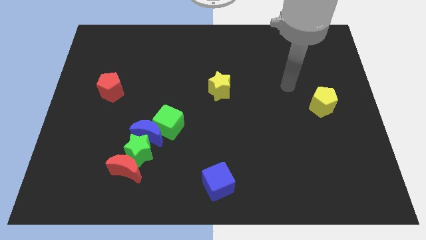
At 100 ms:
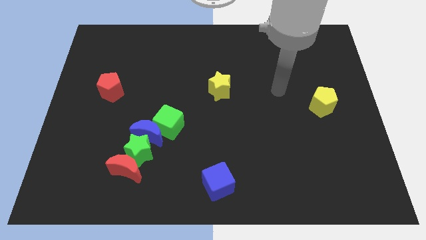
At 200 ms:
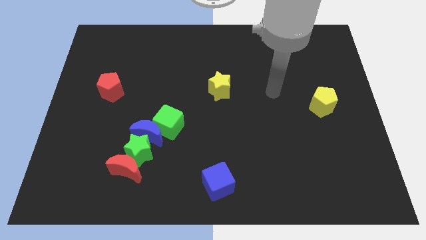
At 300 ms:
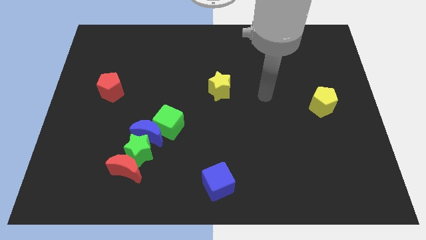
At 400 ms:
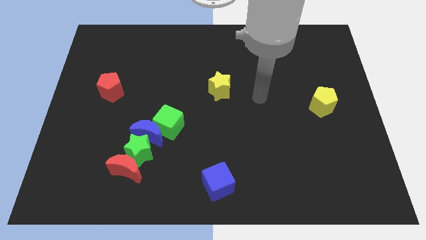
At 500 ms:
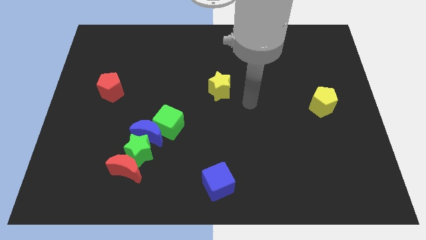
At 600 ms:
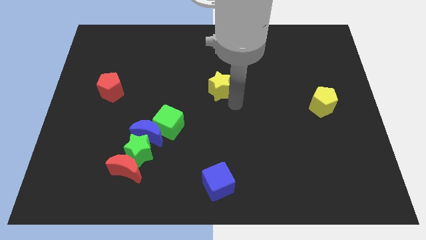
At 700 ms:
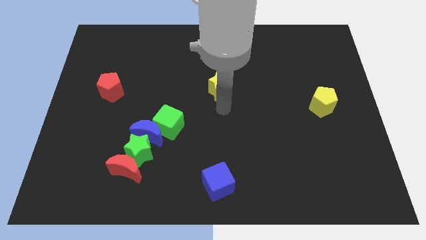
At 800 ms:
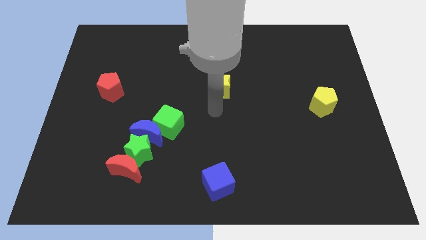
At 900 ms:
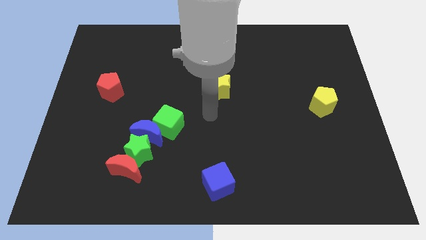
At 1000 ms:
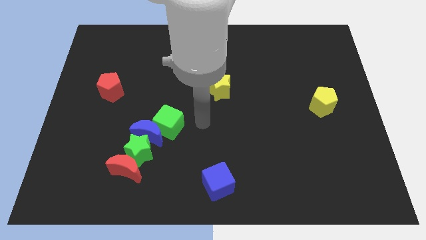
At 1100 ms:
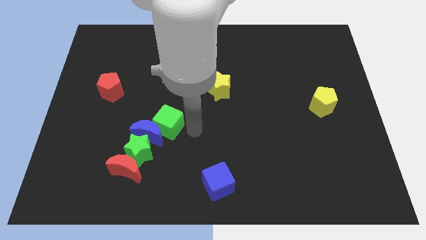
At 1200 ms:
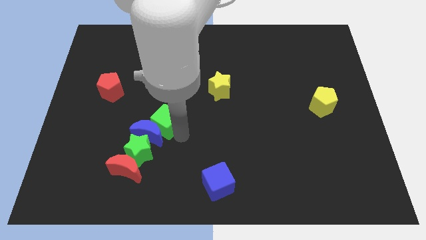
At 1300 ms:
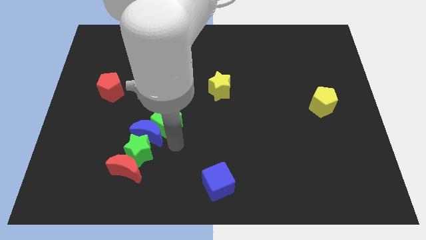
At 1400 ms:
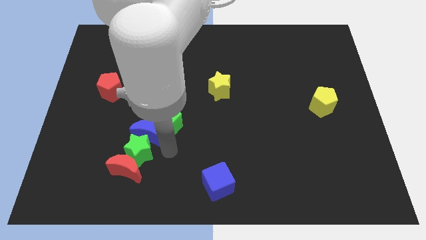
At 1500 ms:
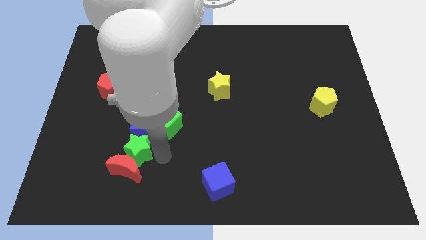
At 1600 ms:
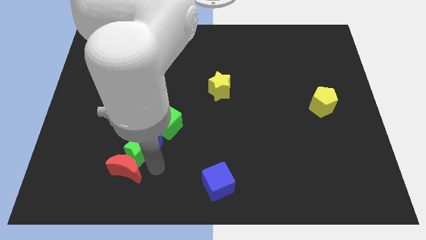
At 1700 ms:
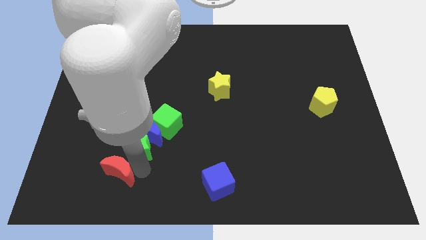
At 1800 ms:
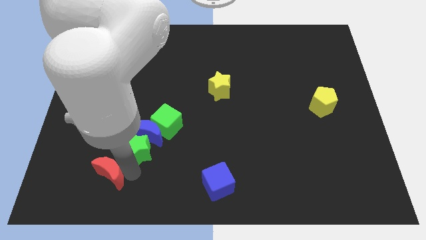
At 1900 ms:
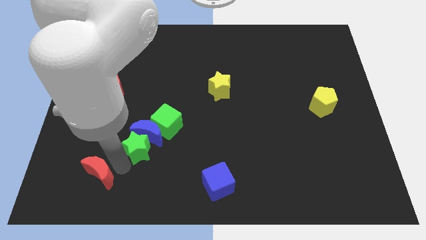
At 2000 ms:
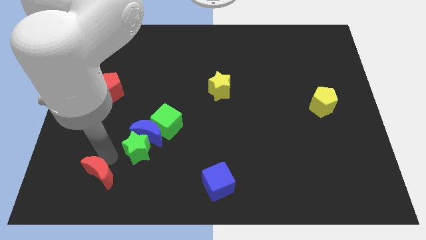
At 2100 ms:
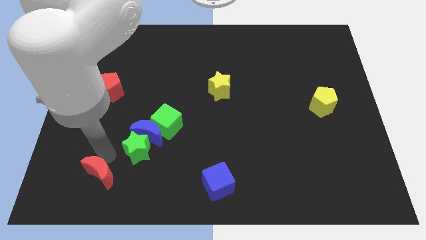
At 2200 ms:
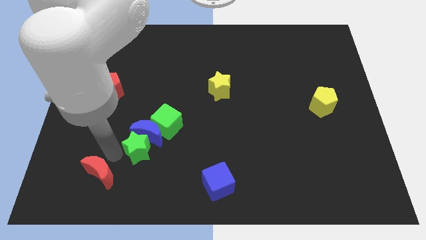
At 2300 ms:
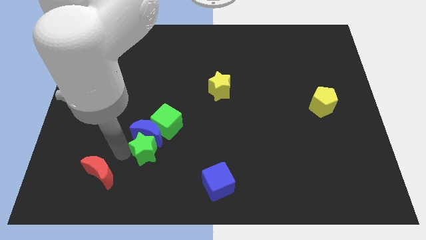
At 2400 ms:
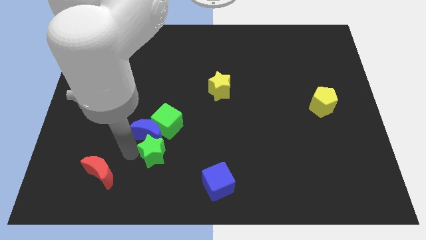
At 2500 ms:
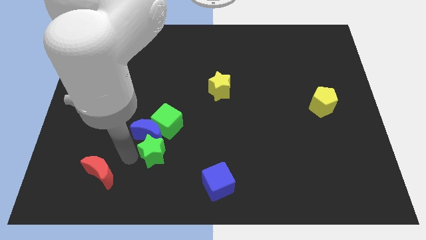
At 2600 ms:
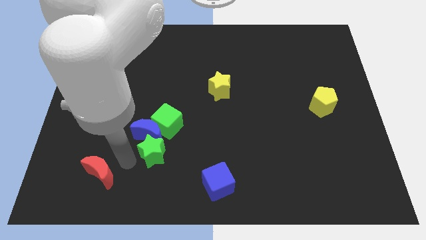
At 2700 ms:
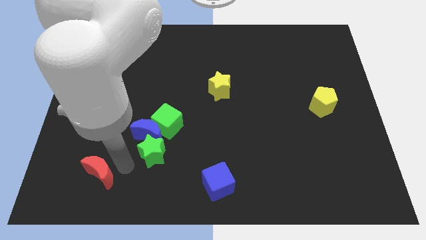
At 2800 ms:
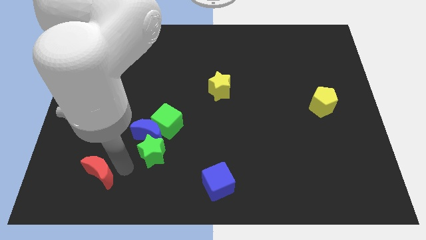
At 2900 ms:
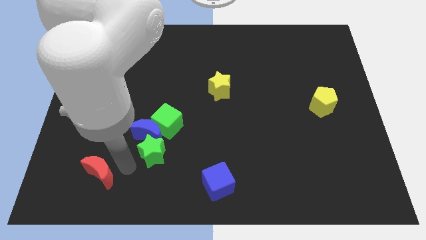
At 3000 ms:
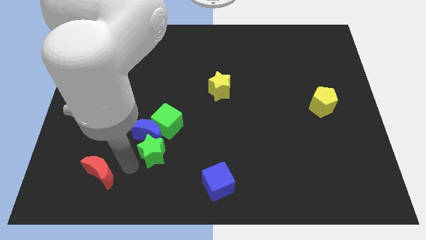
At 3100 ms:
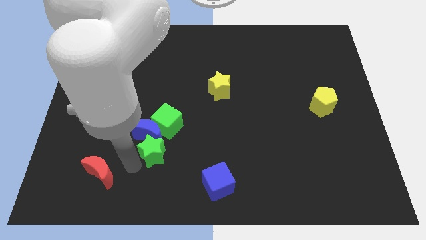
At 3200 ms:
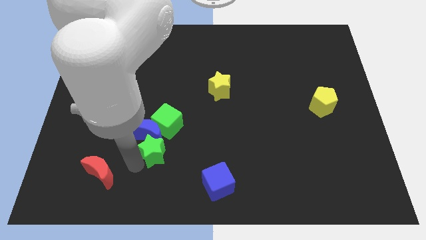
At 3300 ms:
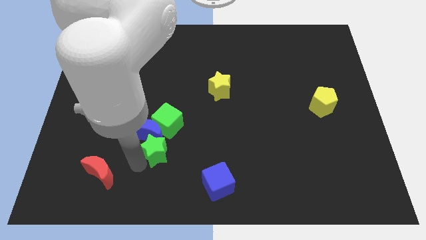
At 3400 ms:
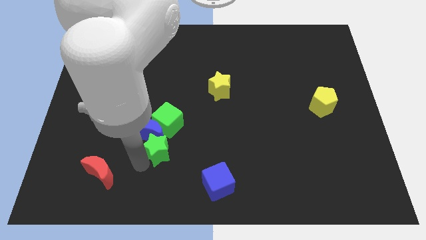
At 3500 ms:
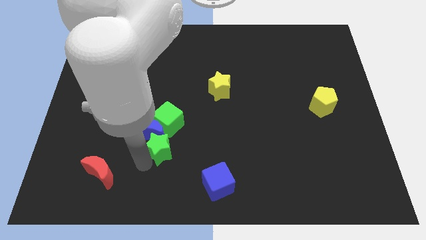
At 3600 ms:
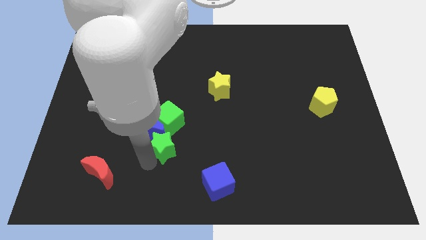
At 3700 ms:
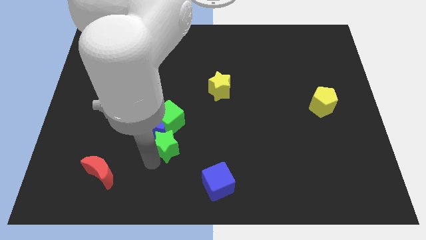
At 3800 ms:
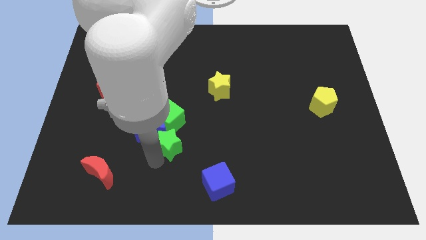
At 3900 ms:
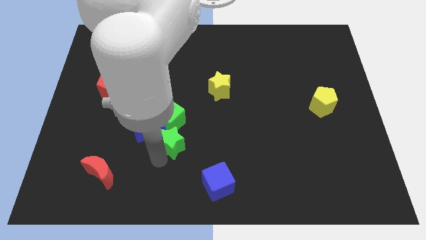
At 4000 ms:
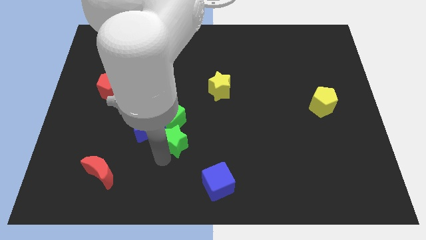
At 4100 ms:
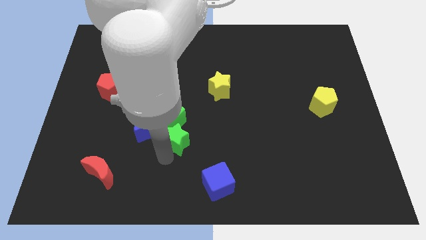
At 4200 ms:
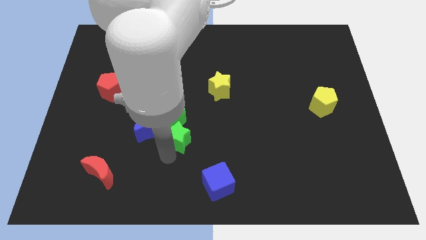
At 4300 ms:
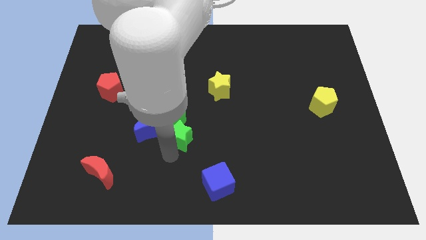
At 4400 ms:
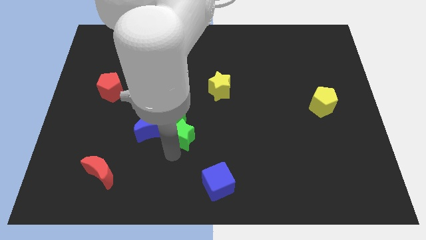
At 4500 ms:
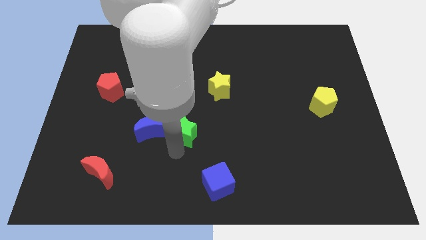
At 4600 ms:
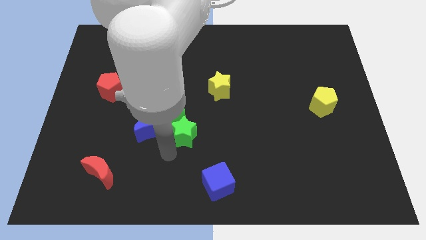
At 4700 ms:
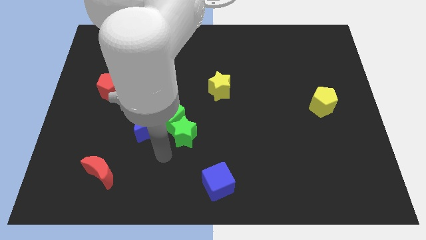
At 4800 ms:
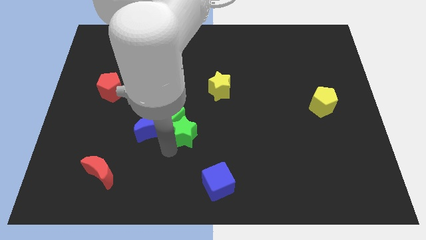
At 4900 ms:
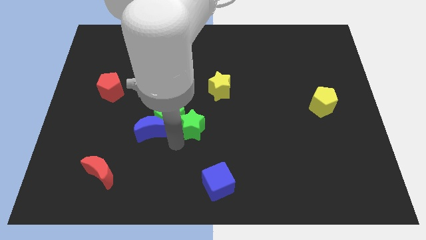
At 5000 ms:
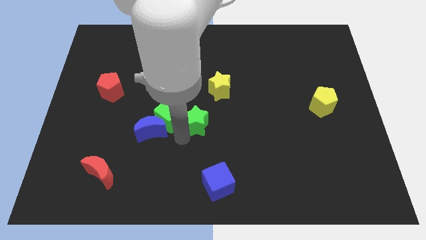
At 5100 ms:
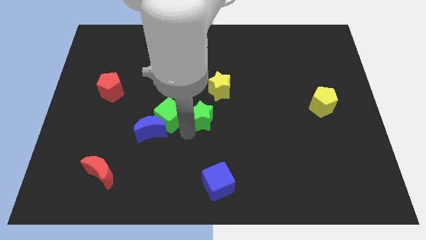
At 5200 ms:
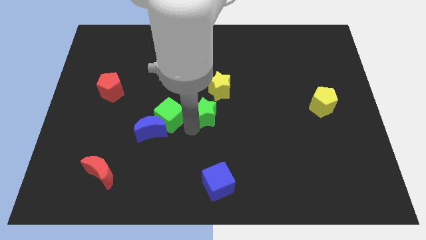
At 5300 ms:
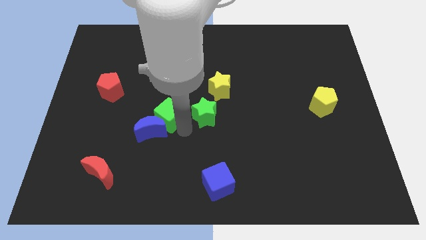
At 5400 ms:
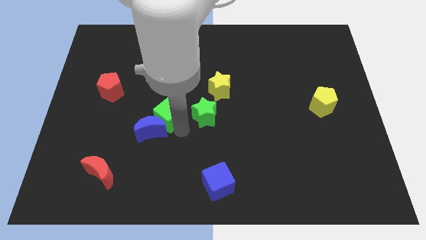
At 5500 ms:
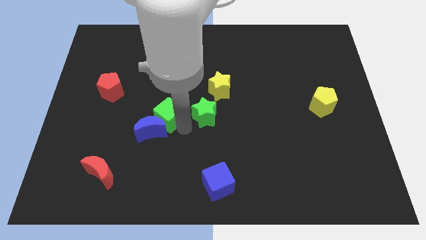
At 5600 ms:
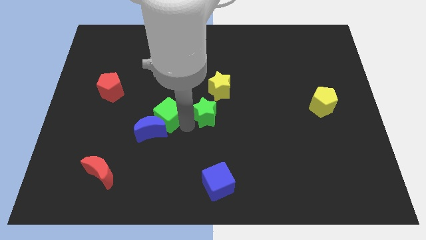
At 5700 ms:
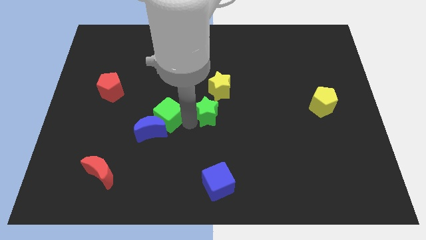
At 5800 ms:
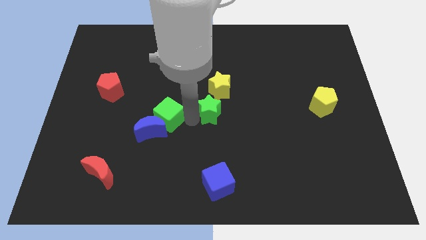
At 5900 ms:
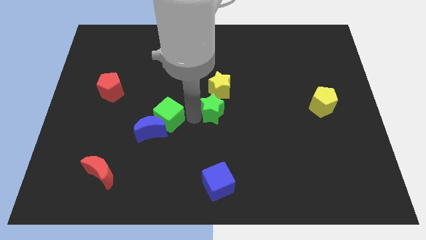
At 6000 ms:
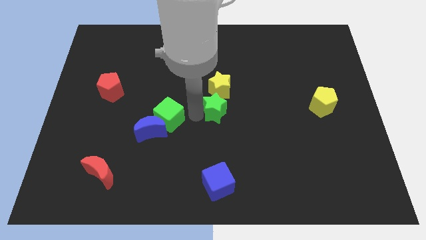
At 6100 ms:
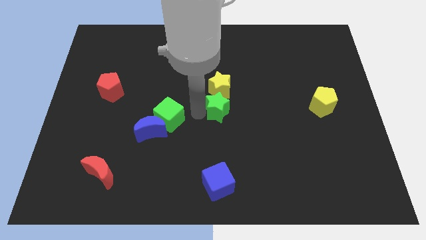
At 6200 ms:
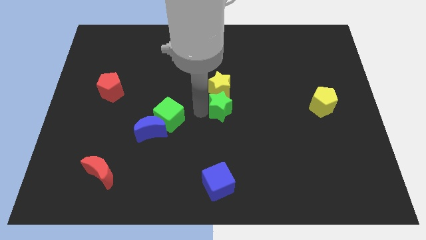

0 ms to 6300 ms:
move the green star upwards and to the right

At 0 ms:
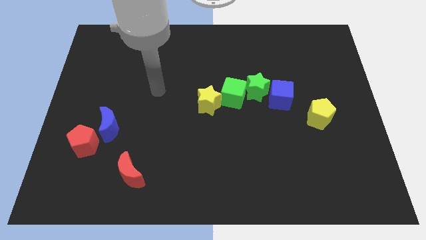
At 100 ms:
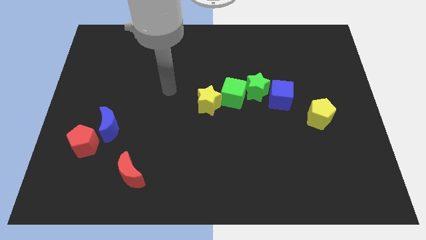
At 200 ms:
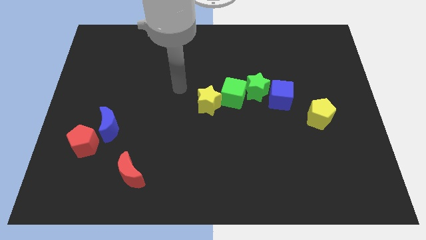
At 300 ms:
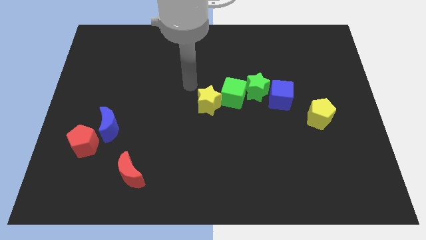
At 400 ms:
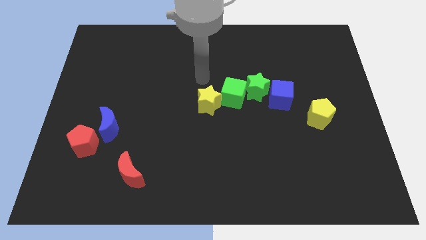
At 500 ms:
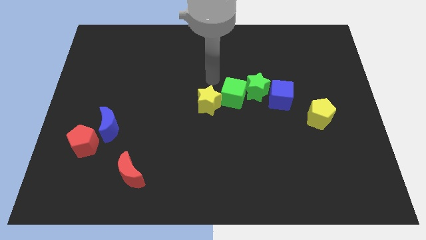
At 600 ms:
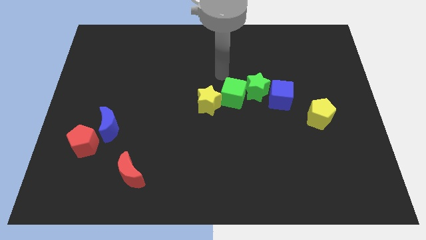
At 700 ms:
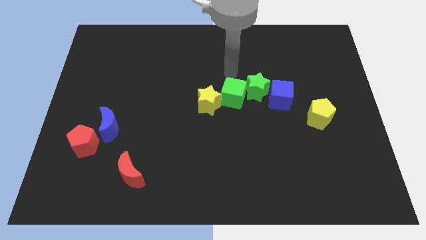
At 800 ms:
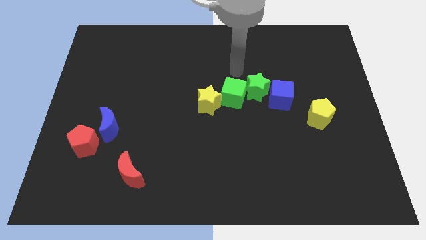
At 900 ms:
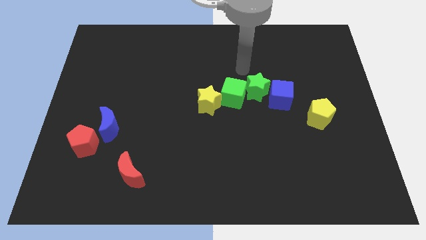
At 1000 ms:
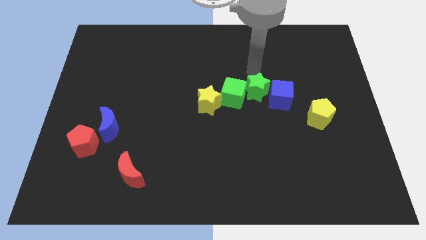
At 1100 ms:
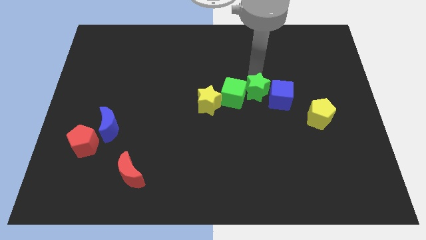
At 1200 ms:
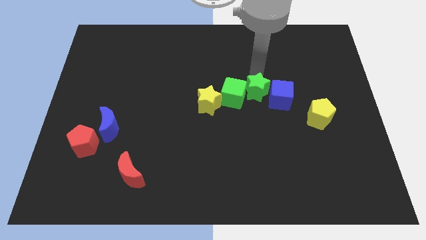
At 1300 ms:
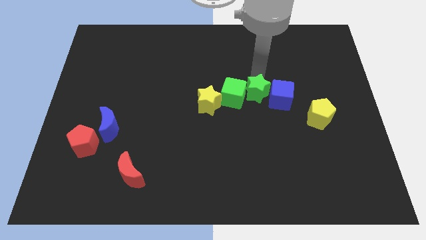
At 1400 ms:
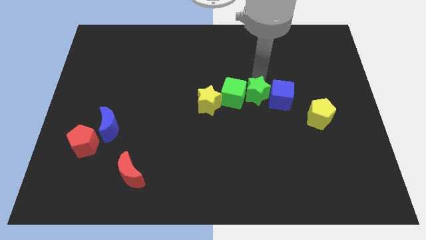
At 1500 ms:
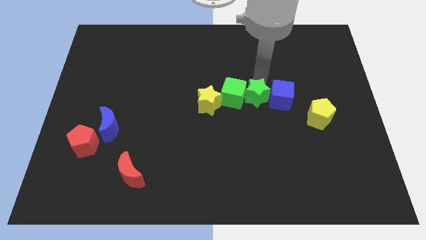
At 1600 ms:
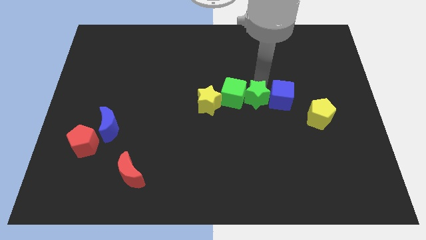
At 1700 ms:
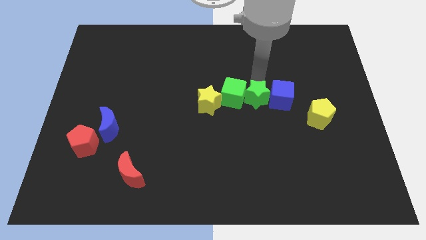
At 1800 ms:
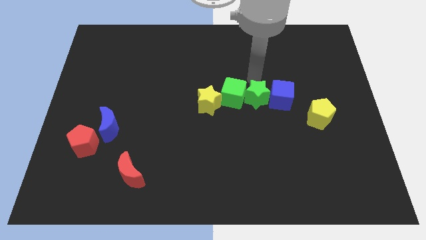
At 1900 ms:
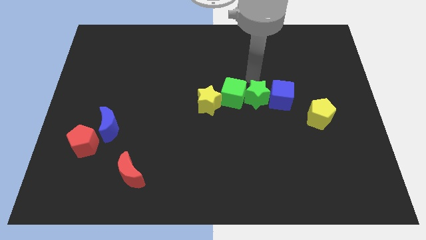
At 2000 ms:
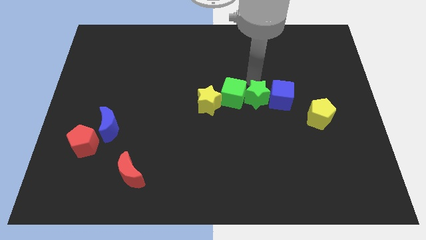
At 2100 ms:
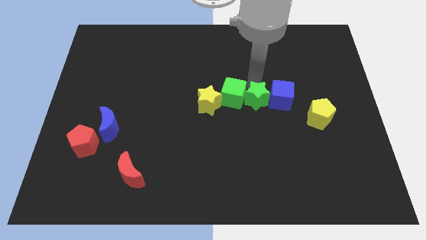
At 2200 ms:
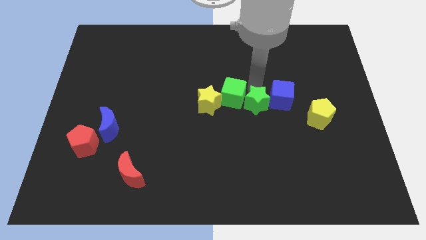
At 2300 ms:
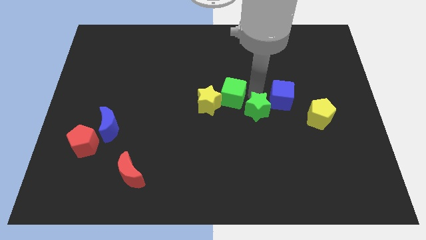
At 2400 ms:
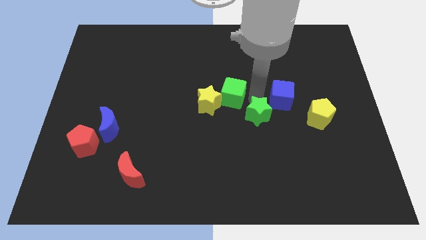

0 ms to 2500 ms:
slightly push the green star down
